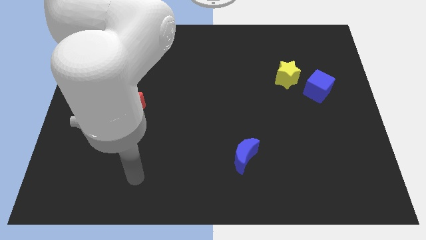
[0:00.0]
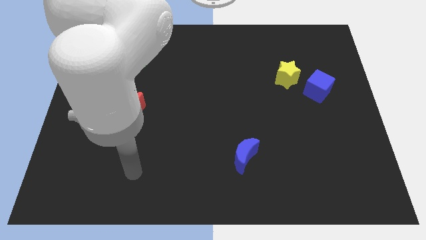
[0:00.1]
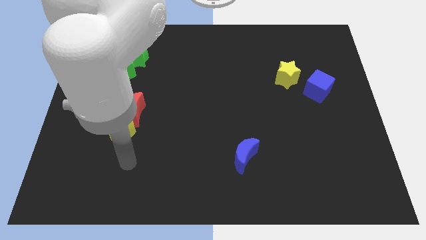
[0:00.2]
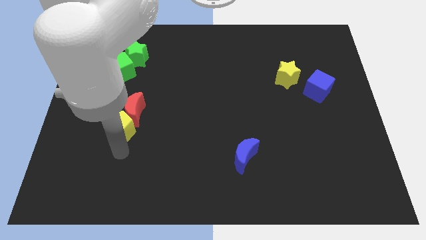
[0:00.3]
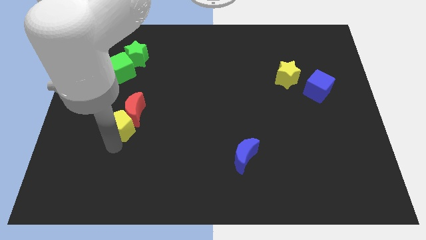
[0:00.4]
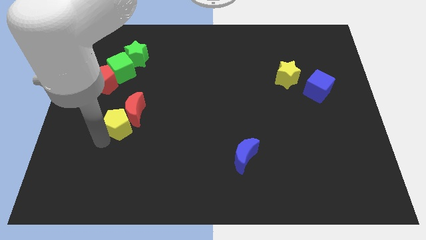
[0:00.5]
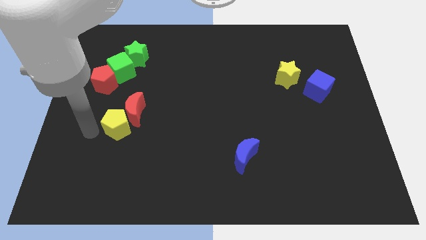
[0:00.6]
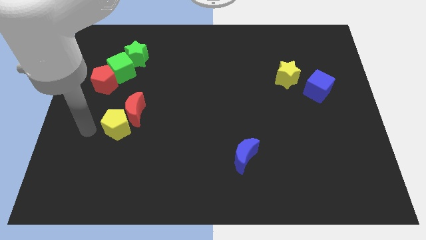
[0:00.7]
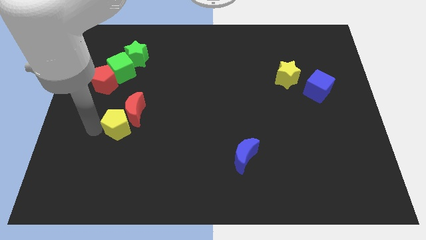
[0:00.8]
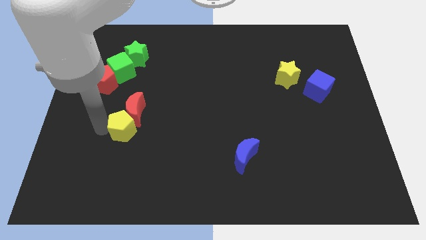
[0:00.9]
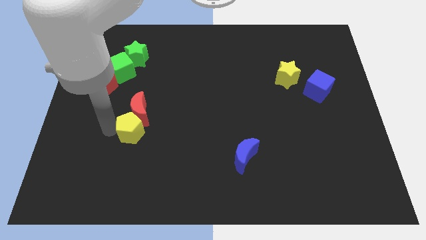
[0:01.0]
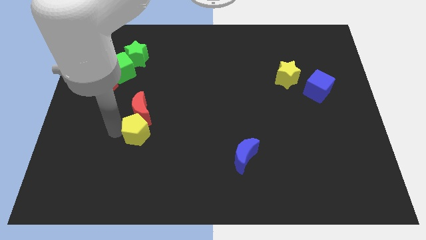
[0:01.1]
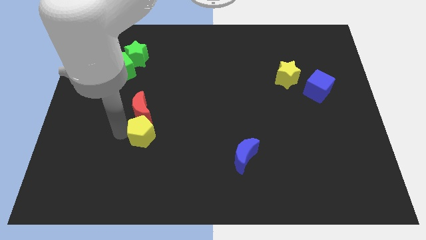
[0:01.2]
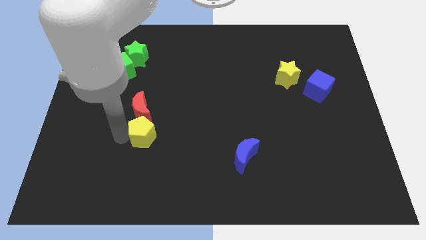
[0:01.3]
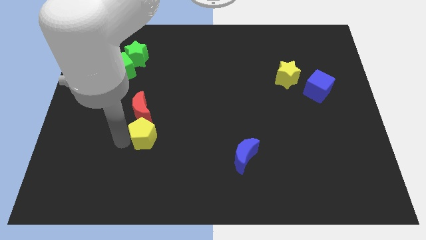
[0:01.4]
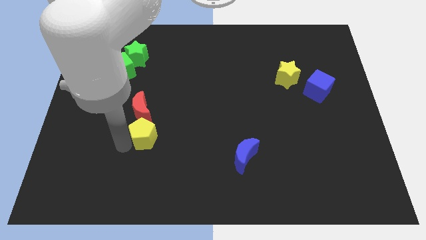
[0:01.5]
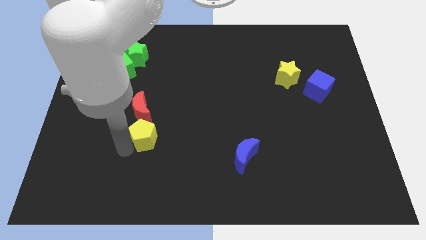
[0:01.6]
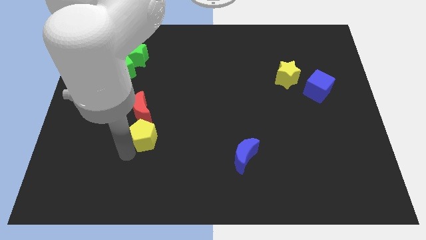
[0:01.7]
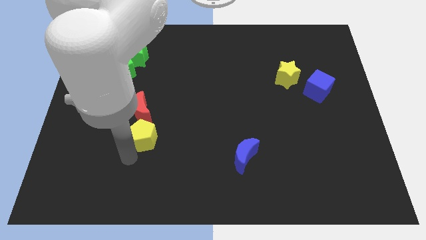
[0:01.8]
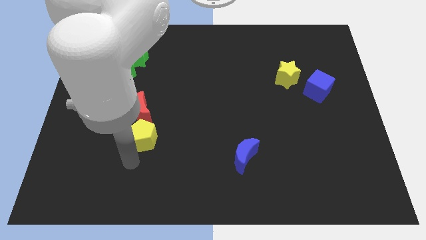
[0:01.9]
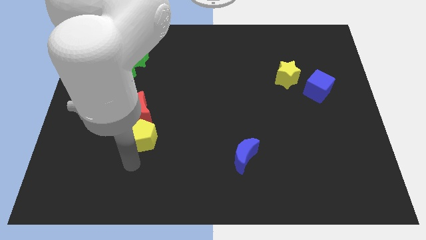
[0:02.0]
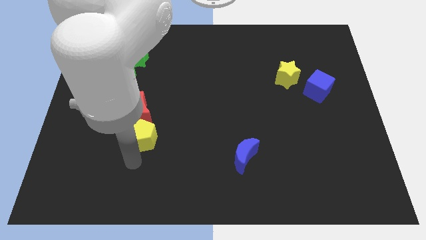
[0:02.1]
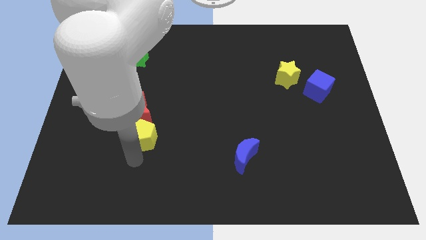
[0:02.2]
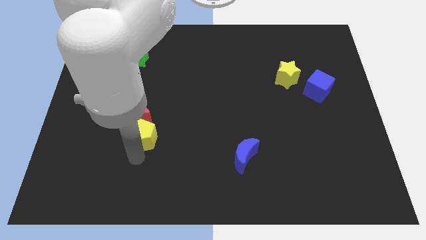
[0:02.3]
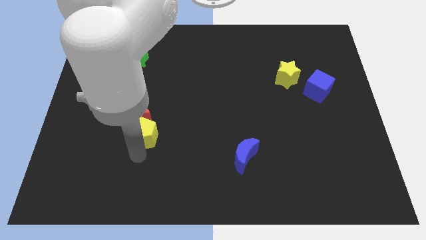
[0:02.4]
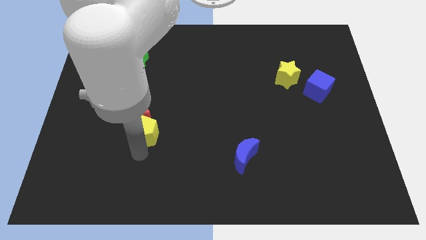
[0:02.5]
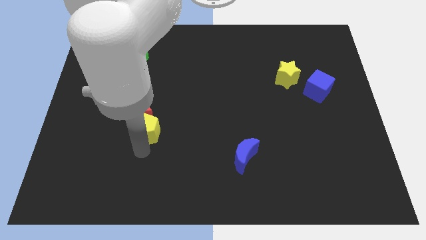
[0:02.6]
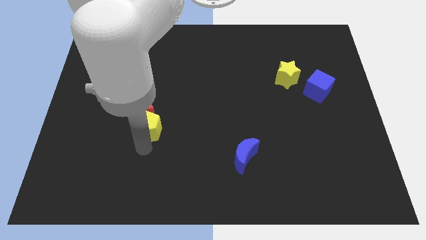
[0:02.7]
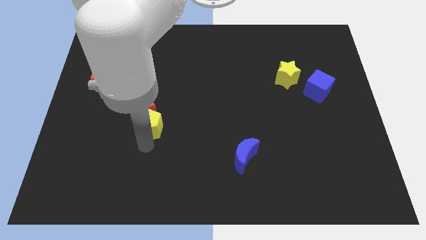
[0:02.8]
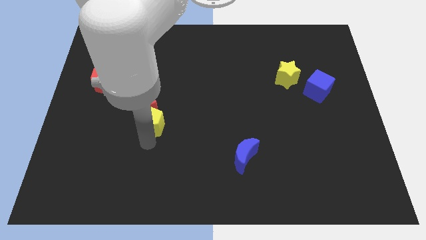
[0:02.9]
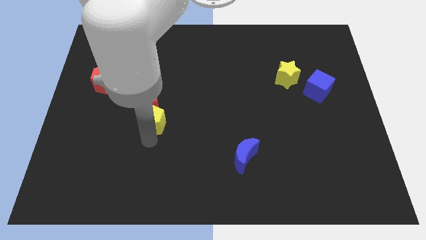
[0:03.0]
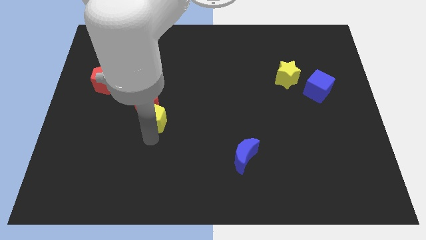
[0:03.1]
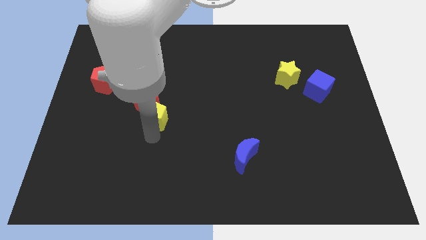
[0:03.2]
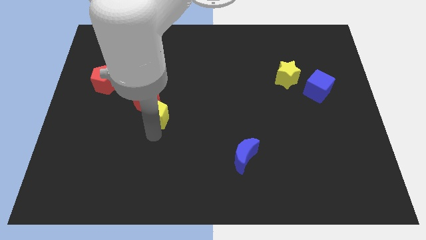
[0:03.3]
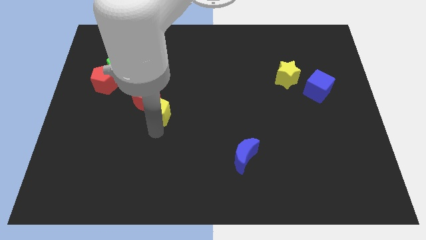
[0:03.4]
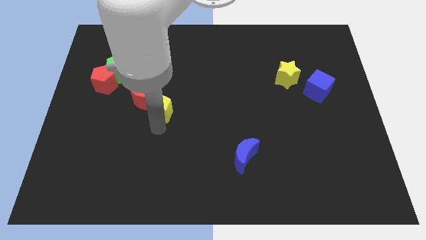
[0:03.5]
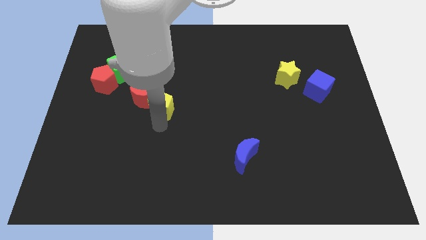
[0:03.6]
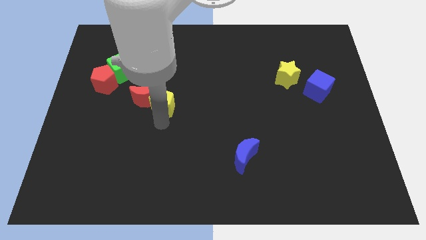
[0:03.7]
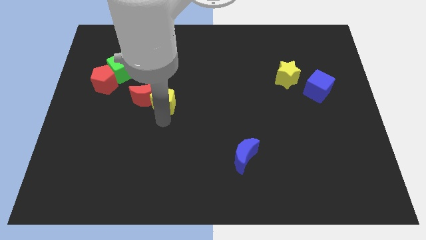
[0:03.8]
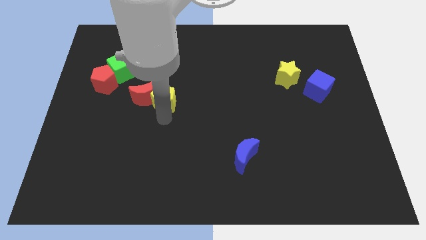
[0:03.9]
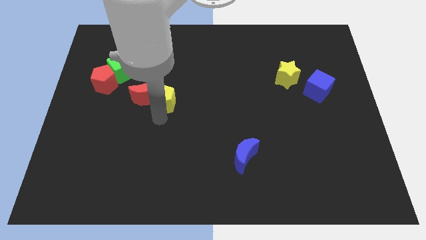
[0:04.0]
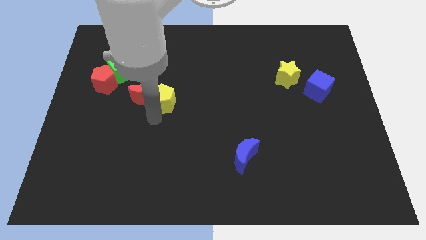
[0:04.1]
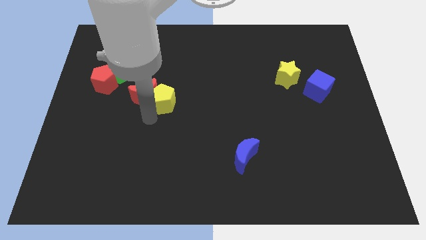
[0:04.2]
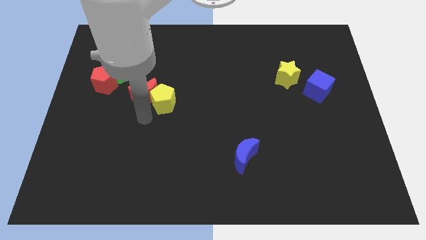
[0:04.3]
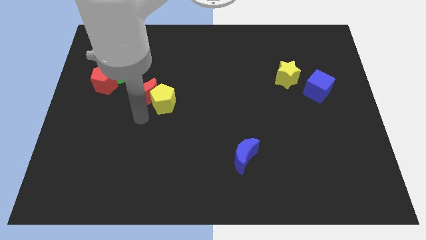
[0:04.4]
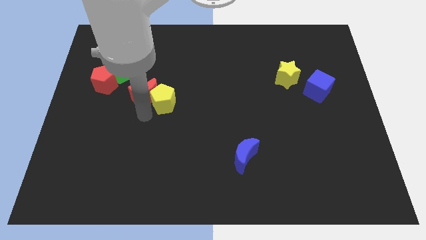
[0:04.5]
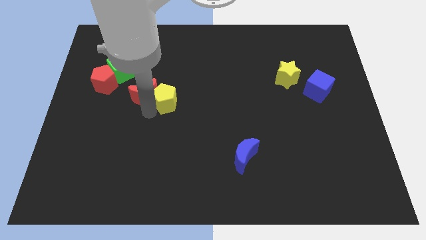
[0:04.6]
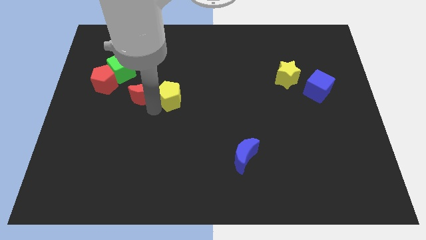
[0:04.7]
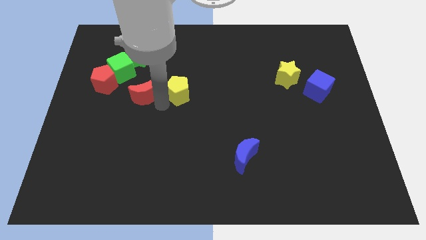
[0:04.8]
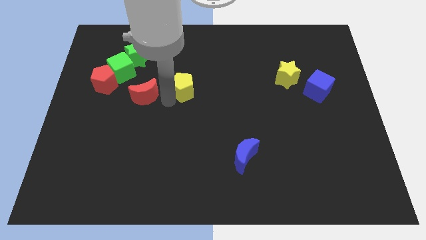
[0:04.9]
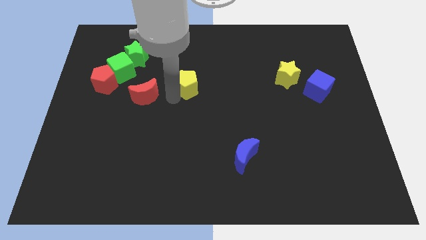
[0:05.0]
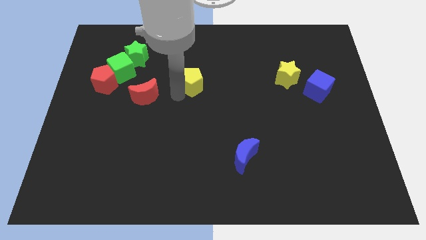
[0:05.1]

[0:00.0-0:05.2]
push the yellow pentagon upwards and to the right

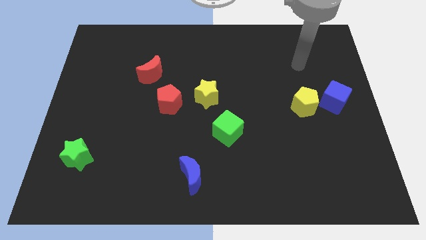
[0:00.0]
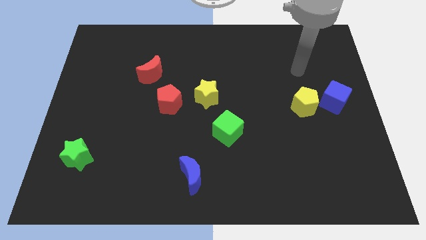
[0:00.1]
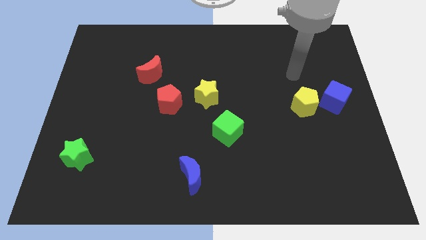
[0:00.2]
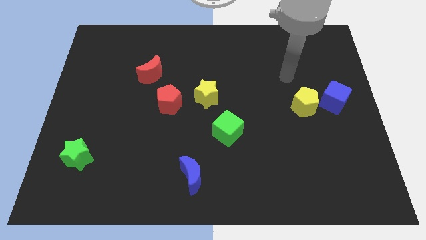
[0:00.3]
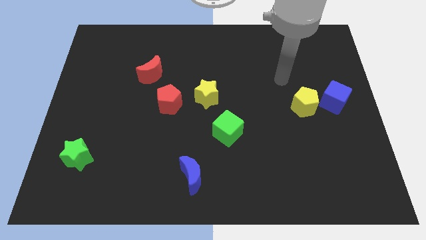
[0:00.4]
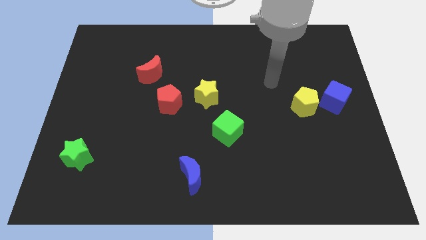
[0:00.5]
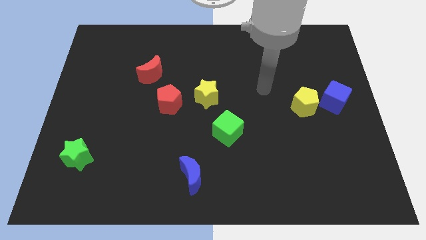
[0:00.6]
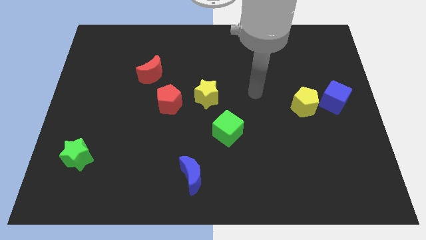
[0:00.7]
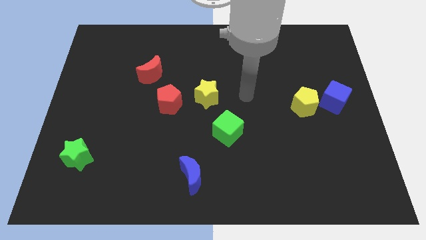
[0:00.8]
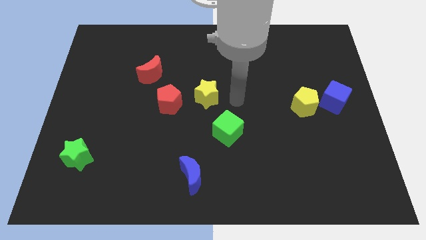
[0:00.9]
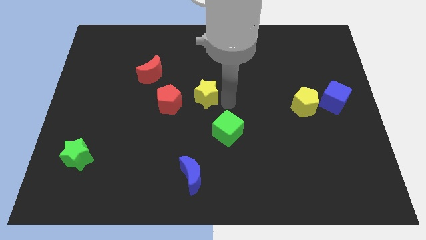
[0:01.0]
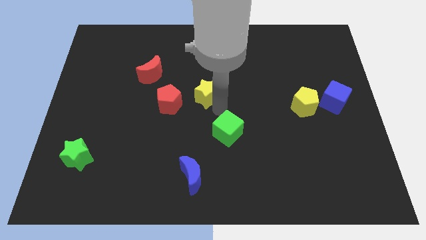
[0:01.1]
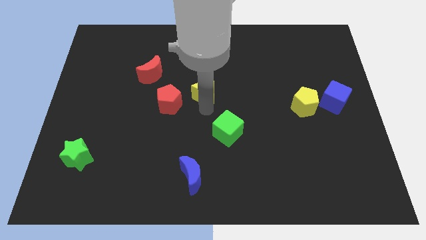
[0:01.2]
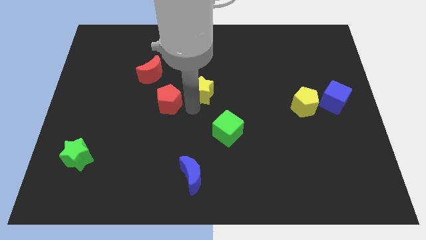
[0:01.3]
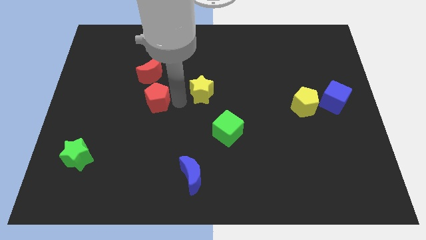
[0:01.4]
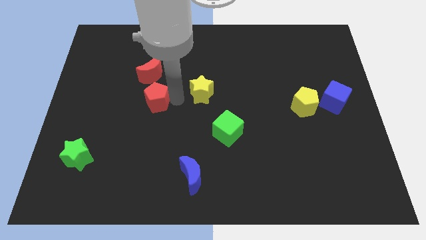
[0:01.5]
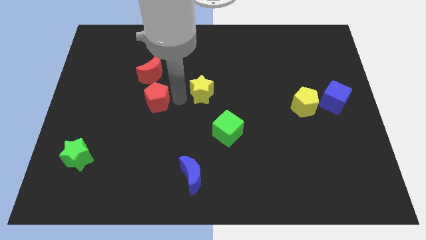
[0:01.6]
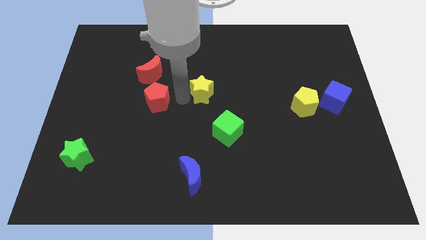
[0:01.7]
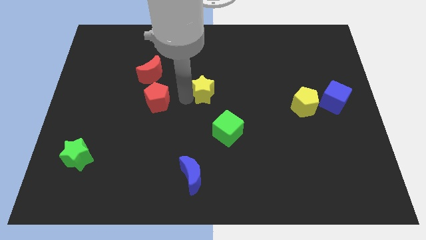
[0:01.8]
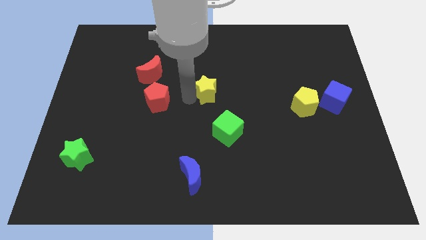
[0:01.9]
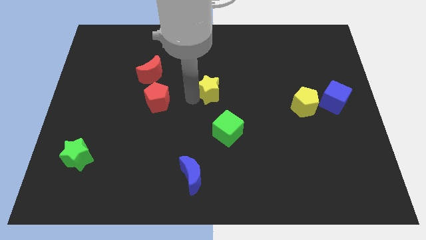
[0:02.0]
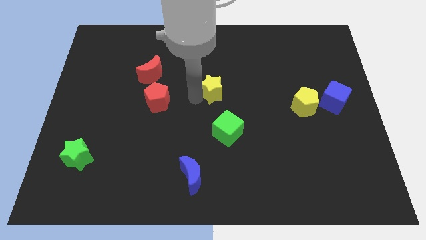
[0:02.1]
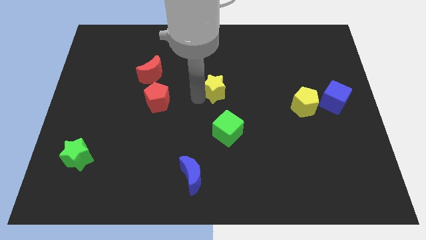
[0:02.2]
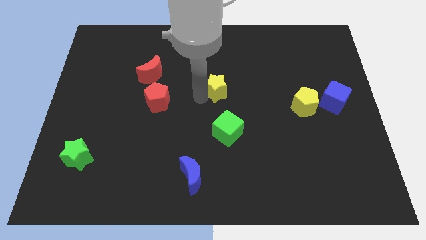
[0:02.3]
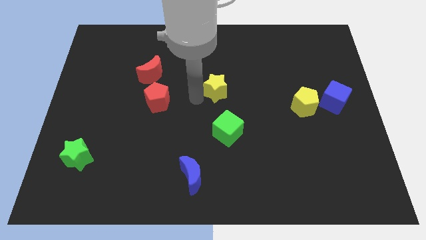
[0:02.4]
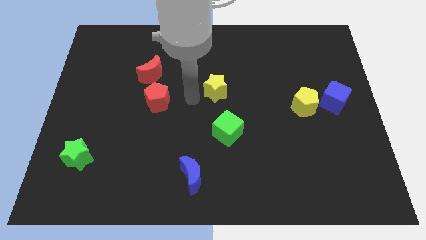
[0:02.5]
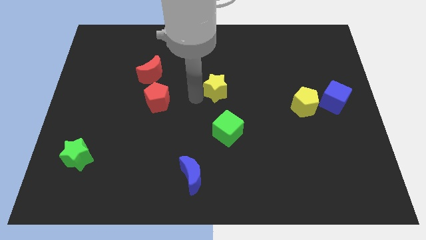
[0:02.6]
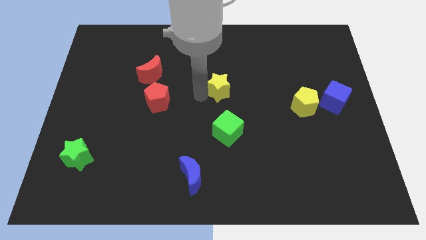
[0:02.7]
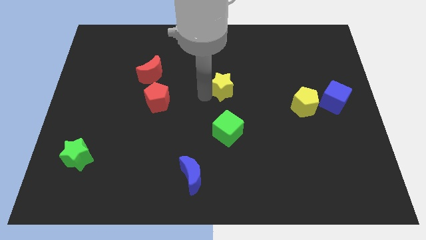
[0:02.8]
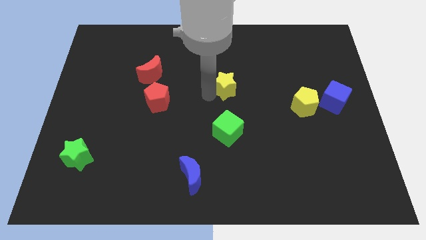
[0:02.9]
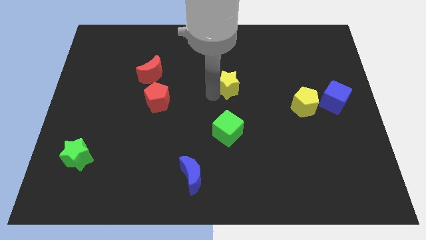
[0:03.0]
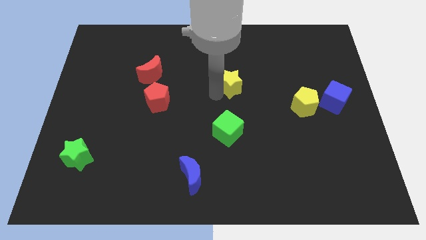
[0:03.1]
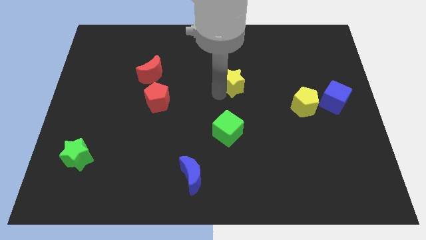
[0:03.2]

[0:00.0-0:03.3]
move the yellow star upwards and to the right a little bit
